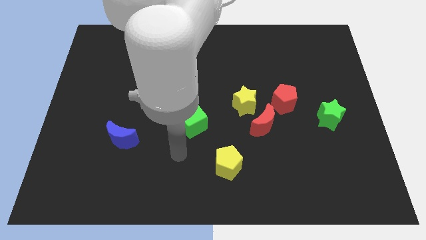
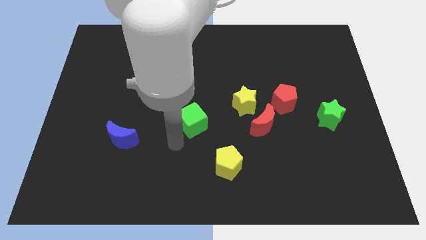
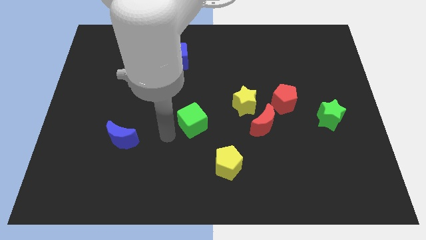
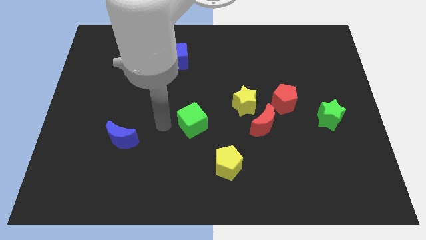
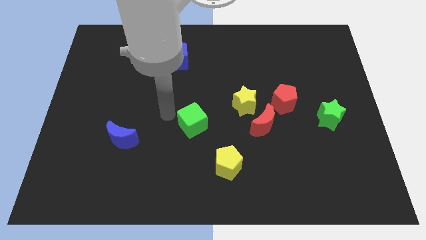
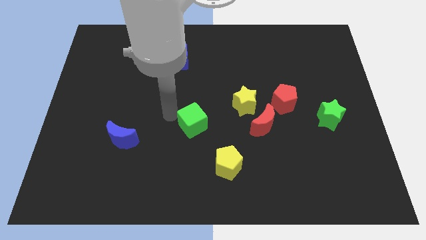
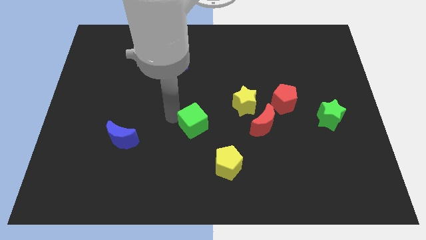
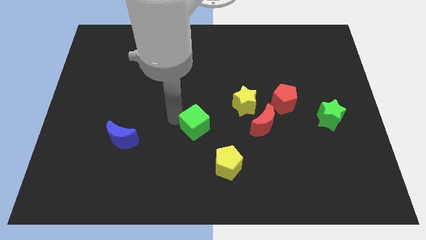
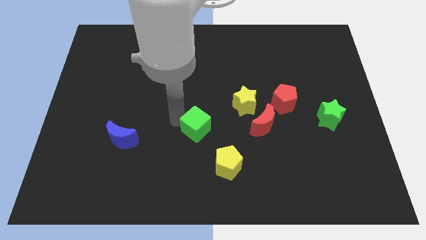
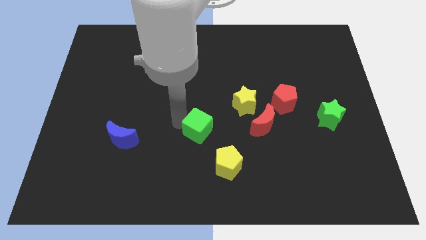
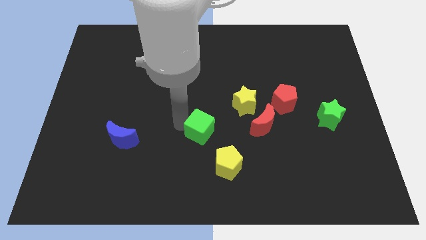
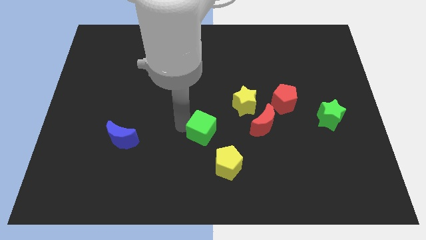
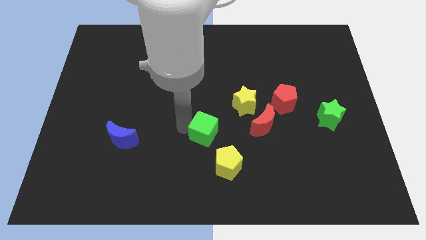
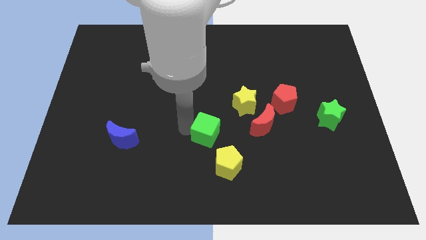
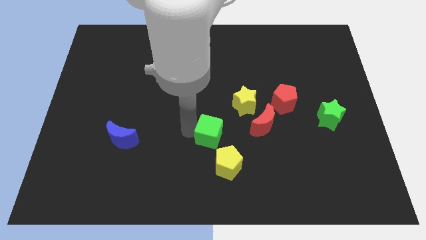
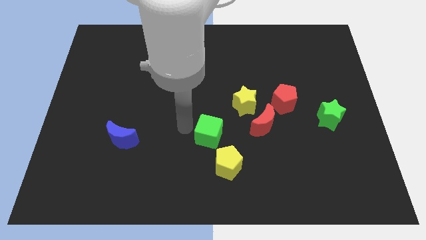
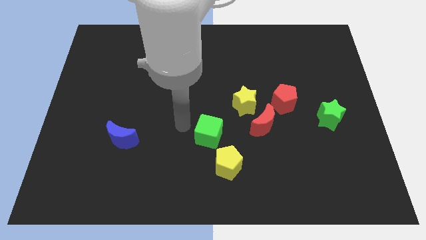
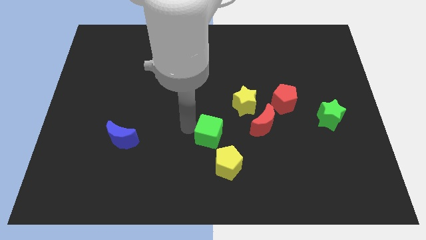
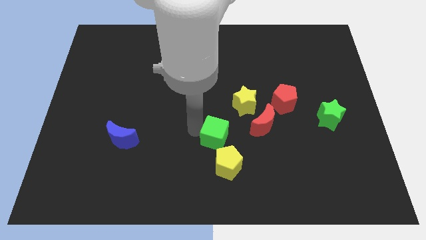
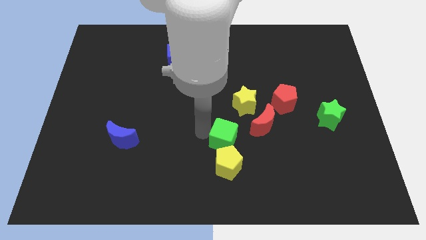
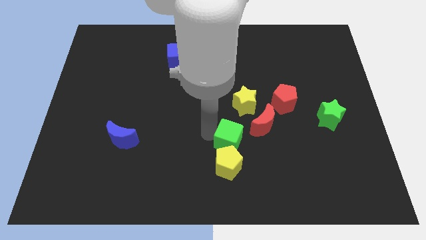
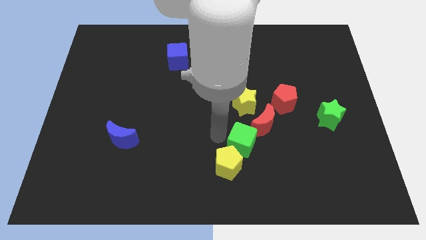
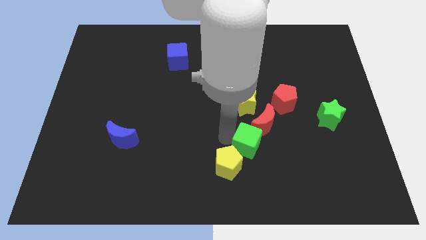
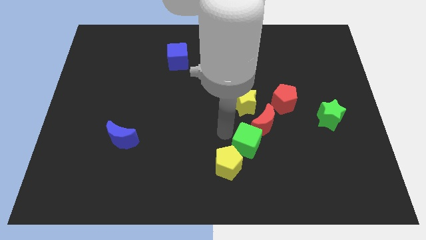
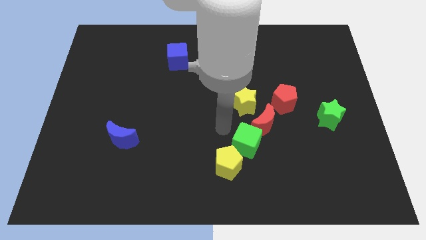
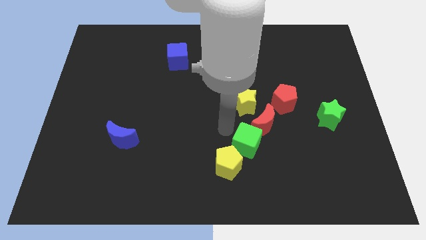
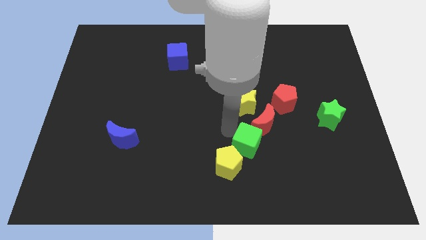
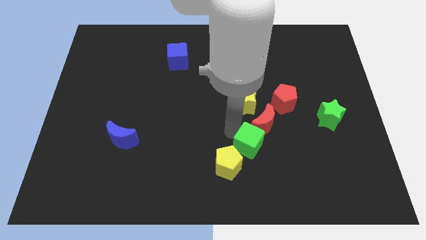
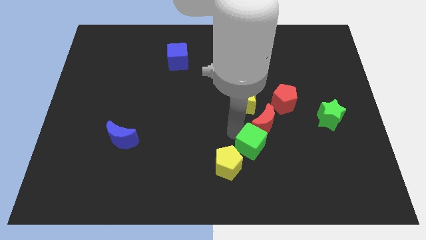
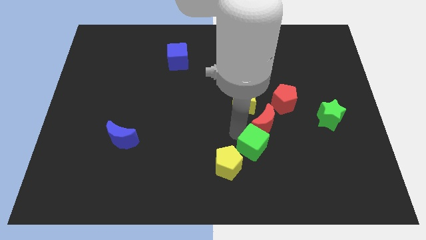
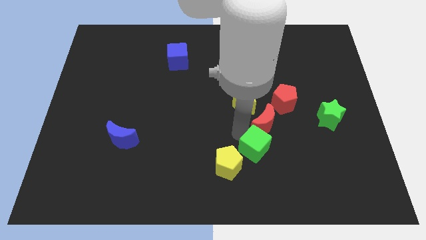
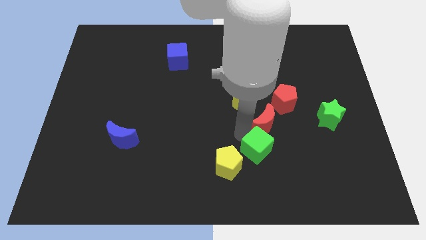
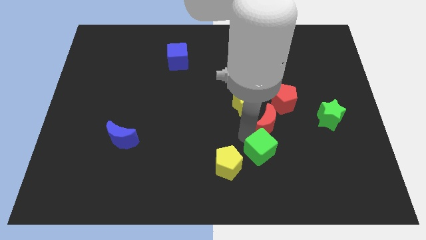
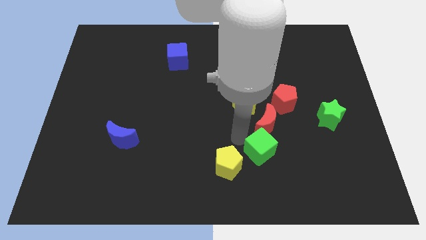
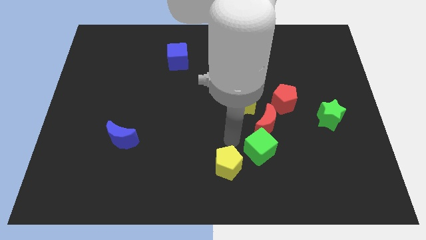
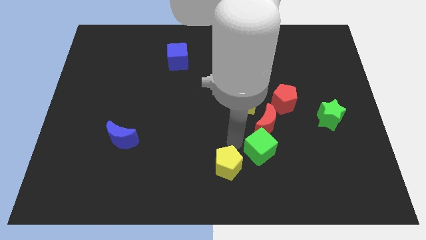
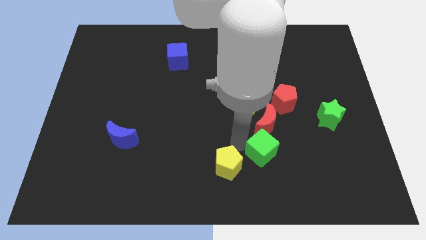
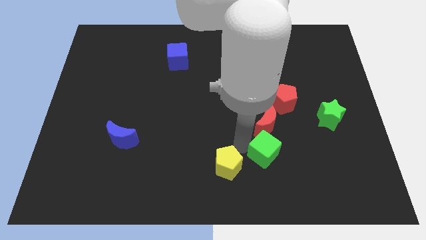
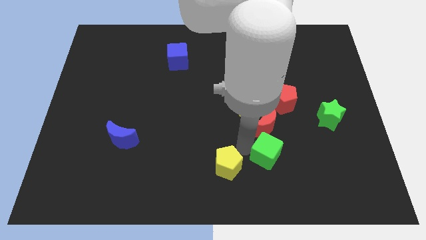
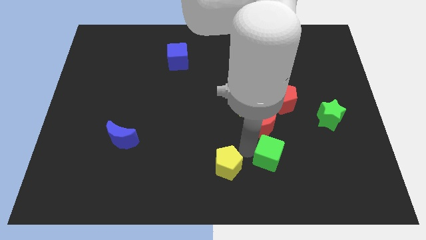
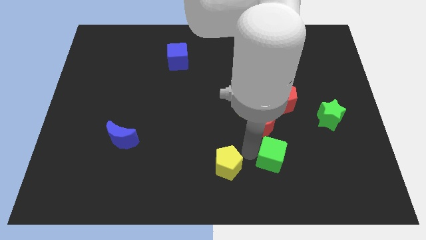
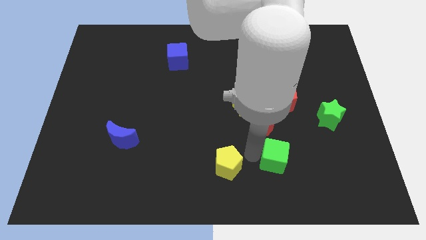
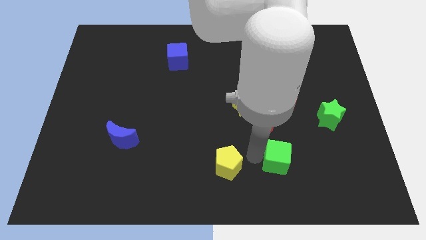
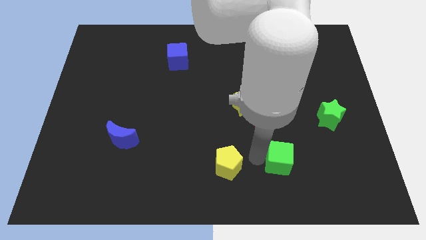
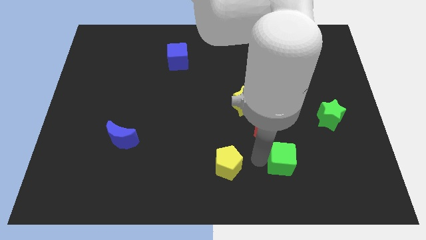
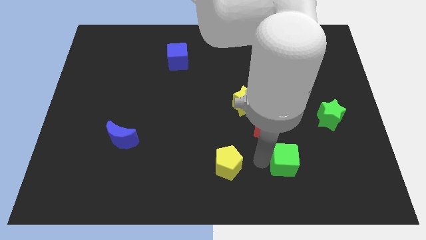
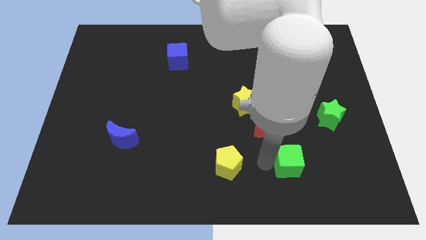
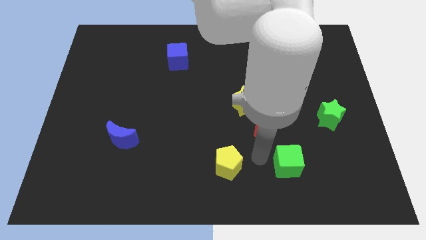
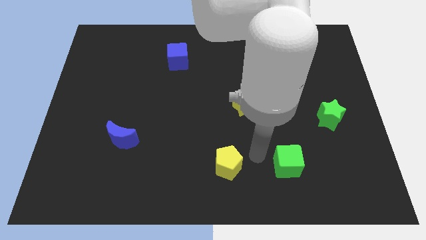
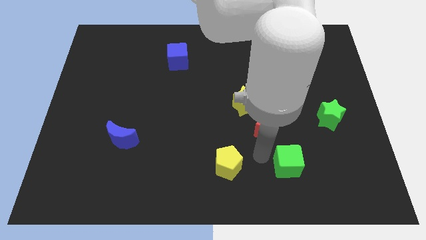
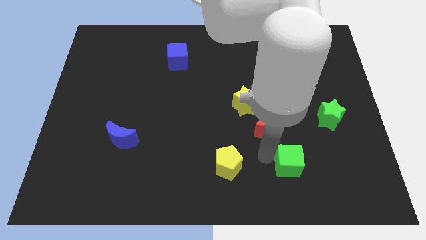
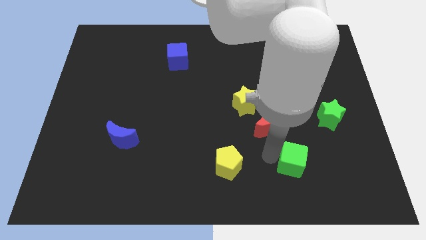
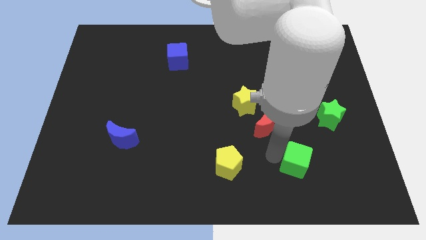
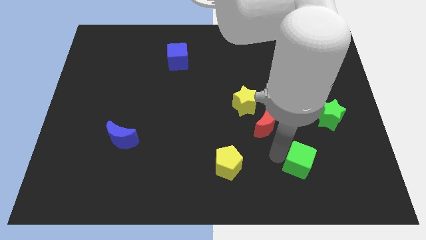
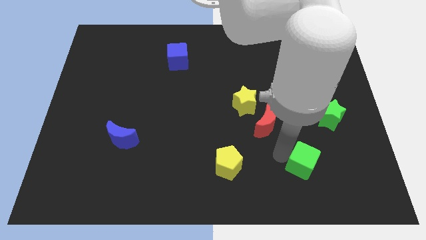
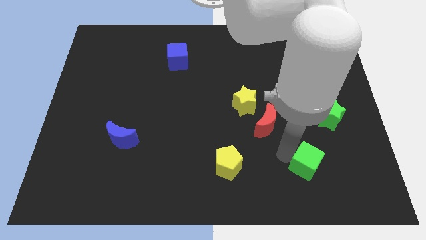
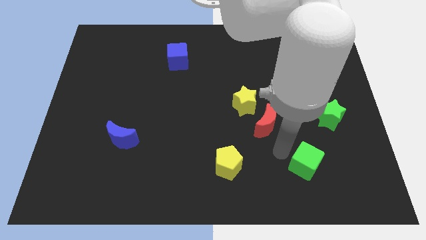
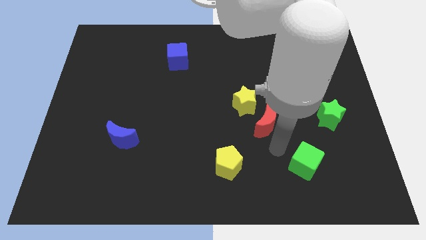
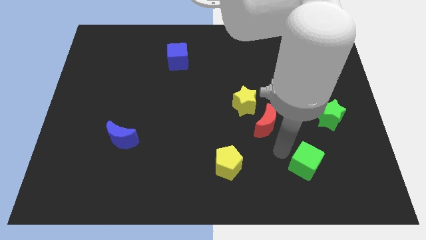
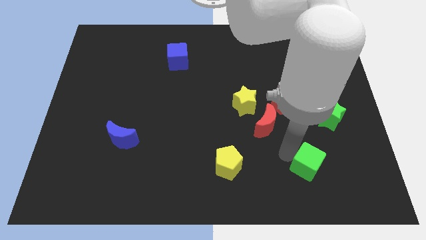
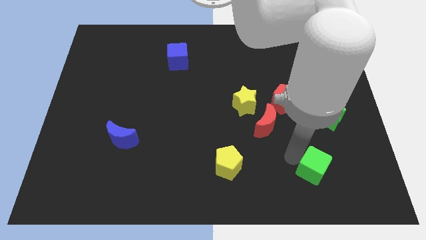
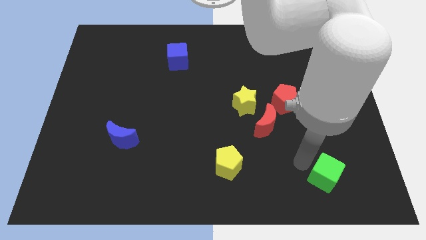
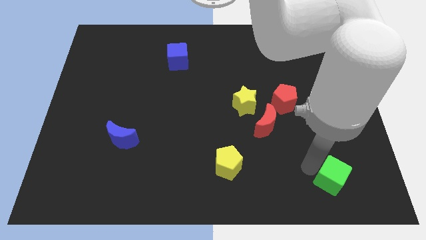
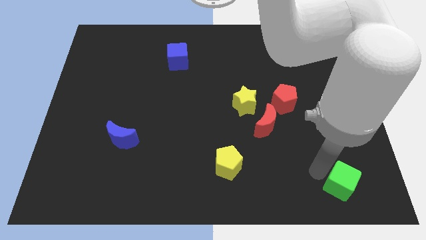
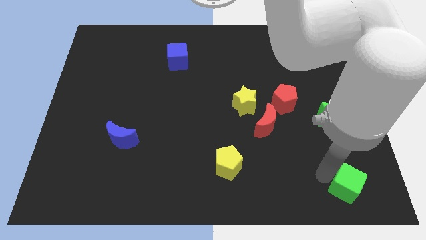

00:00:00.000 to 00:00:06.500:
put the green cube to the bottom right
